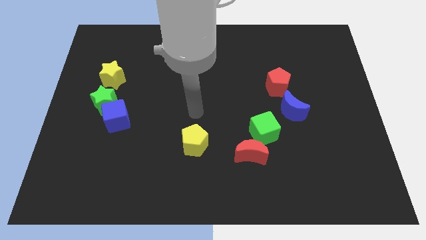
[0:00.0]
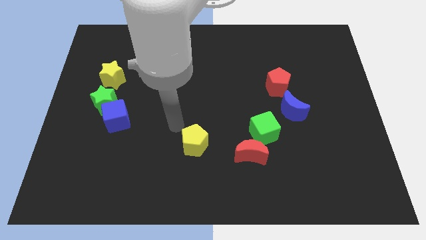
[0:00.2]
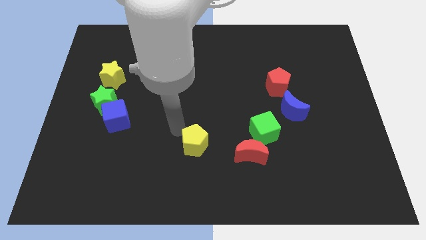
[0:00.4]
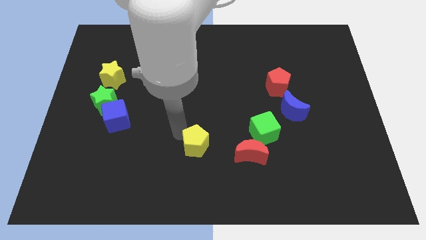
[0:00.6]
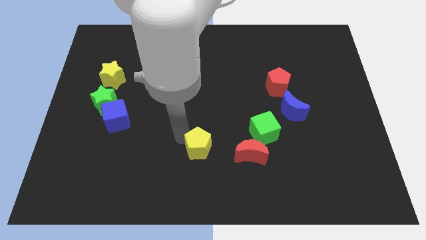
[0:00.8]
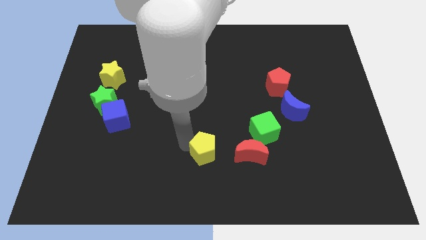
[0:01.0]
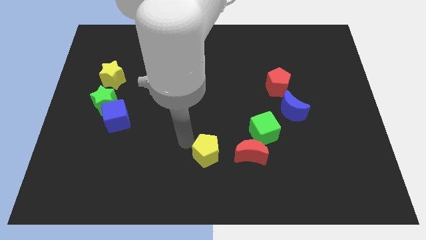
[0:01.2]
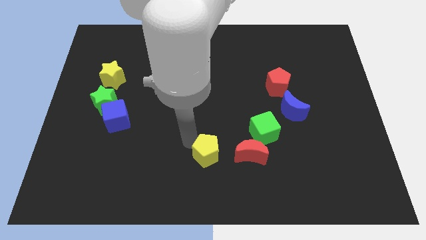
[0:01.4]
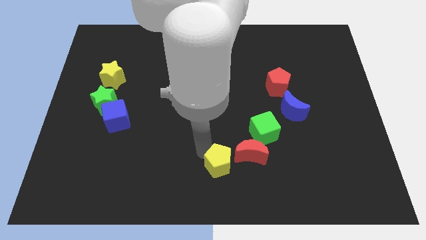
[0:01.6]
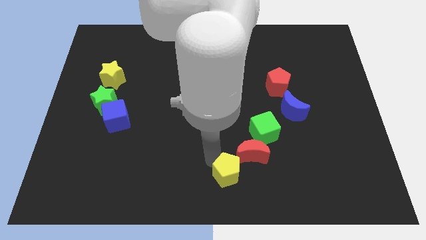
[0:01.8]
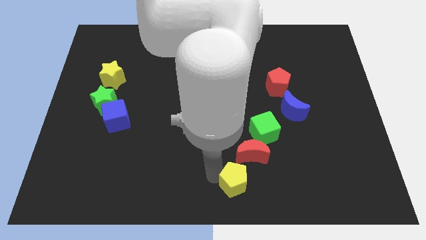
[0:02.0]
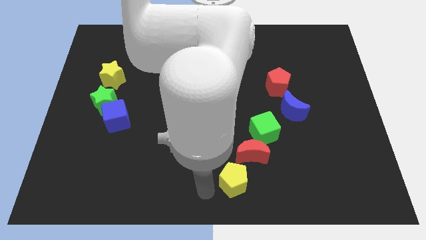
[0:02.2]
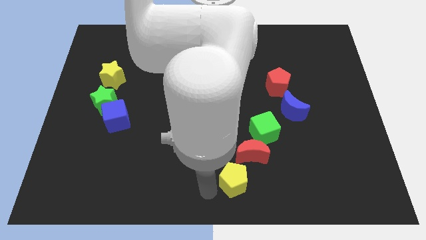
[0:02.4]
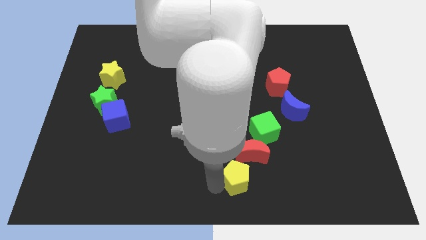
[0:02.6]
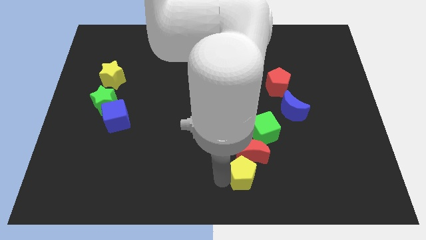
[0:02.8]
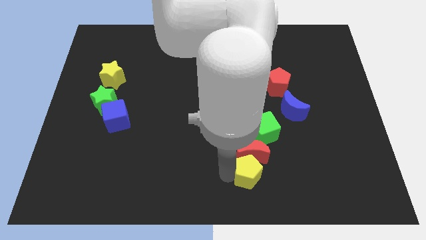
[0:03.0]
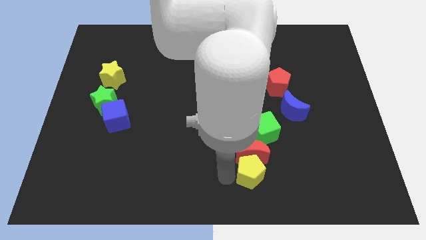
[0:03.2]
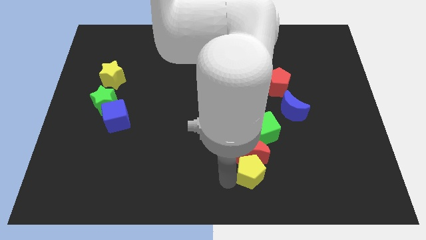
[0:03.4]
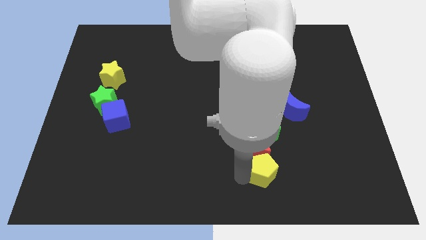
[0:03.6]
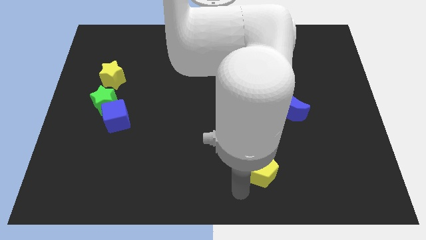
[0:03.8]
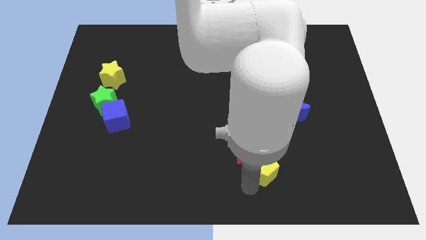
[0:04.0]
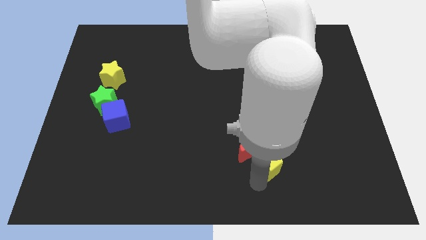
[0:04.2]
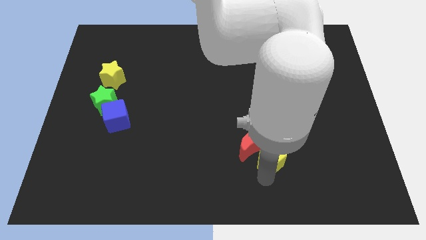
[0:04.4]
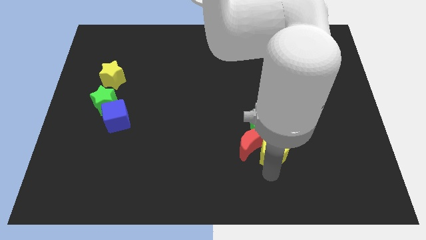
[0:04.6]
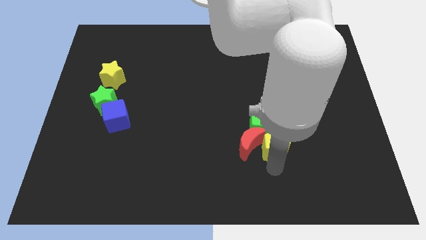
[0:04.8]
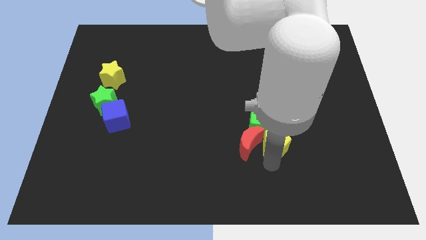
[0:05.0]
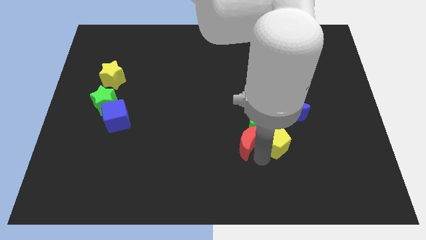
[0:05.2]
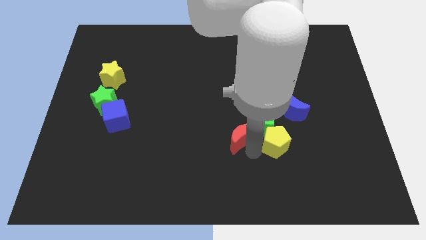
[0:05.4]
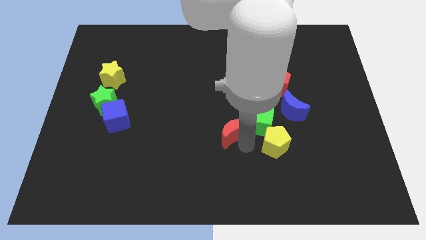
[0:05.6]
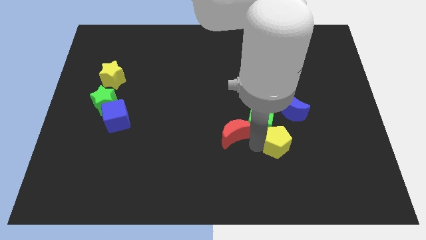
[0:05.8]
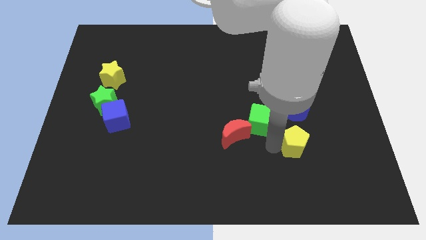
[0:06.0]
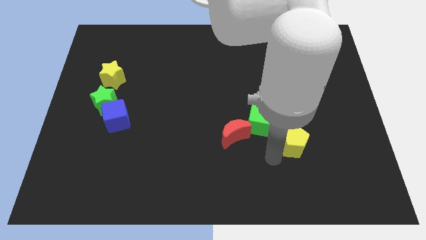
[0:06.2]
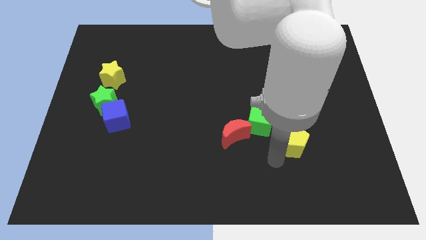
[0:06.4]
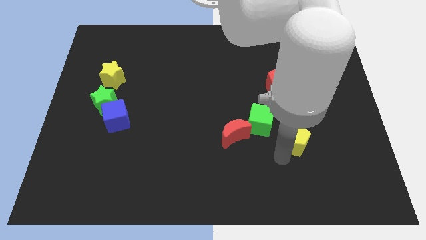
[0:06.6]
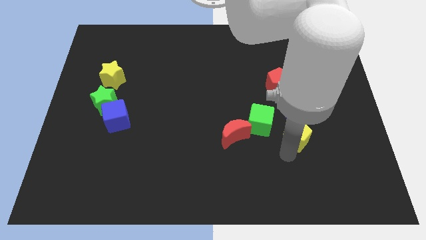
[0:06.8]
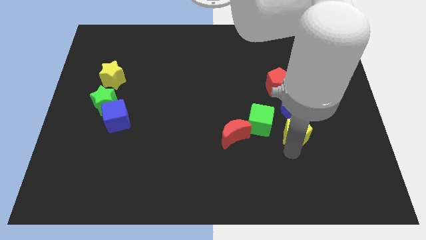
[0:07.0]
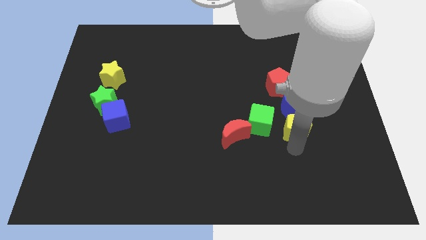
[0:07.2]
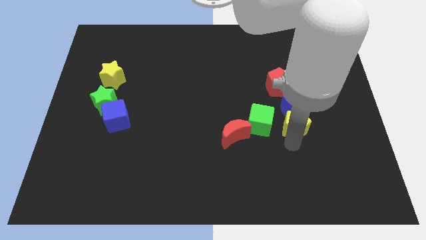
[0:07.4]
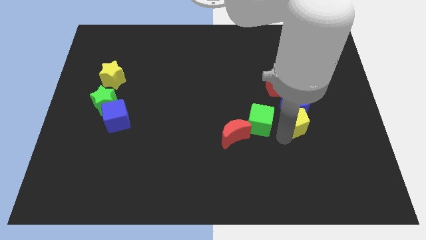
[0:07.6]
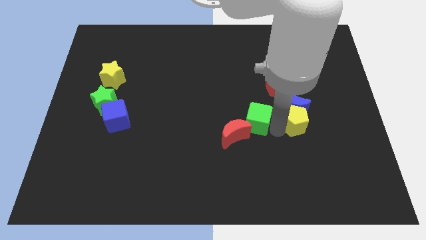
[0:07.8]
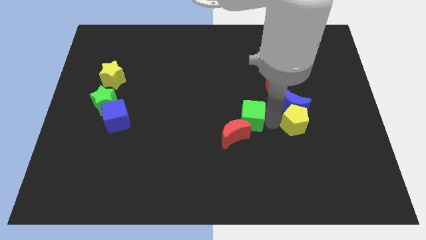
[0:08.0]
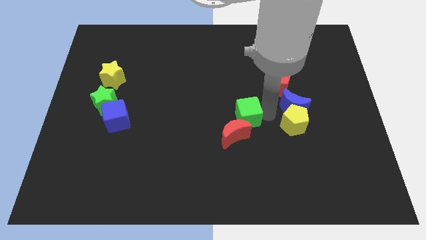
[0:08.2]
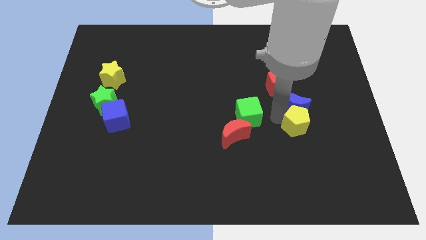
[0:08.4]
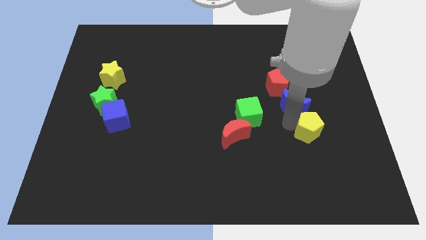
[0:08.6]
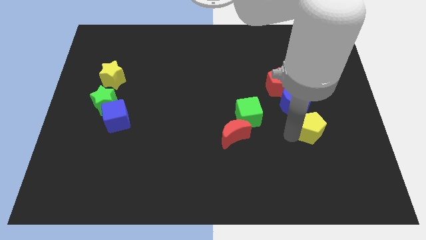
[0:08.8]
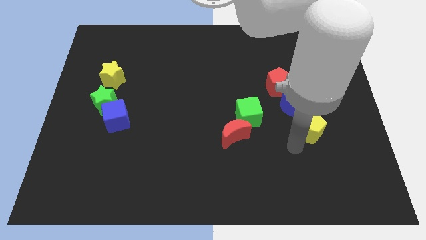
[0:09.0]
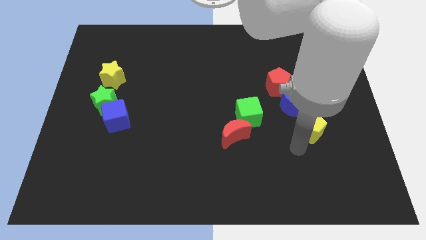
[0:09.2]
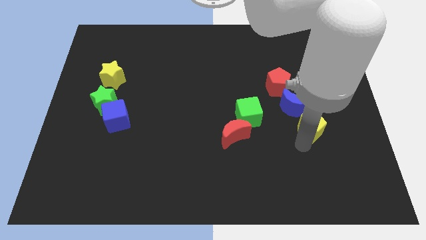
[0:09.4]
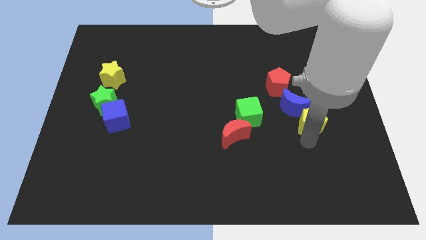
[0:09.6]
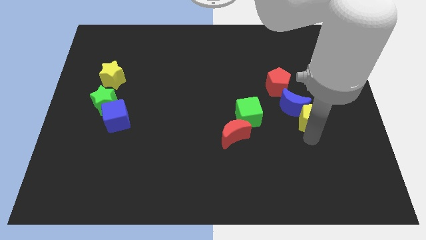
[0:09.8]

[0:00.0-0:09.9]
put the yellow pentagon to the bottom right side of the red pentagon

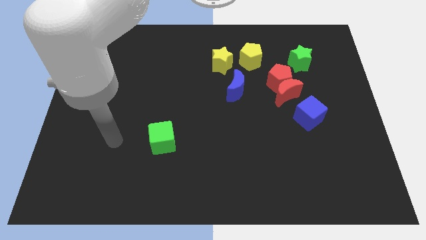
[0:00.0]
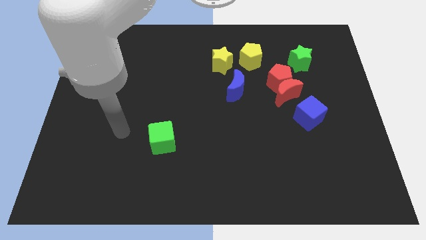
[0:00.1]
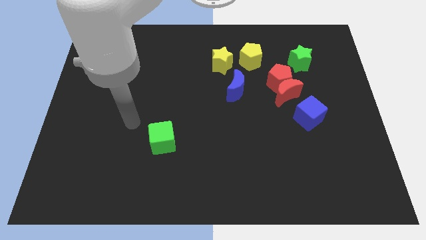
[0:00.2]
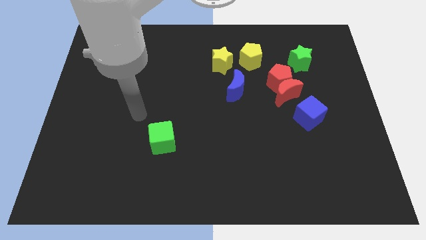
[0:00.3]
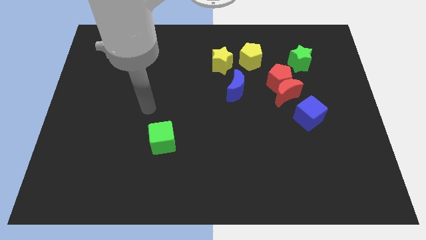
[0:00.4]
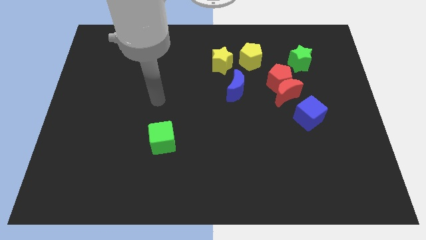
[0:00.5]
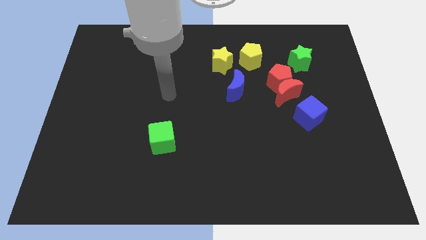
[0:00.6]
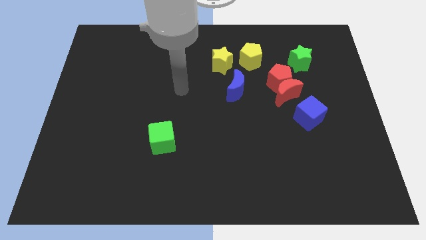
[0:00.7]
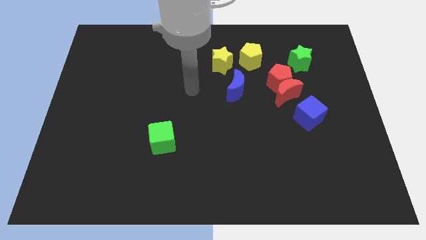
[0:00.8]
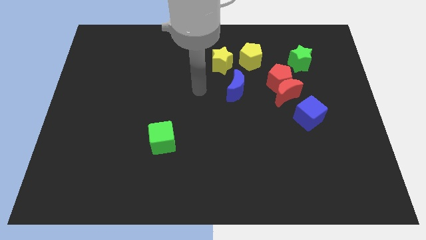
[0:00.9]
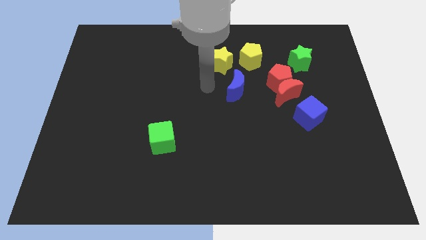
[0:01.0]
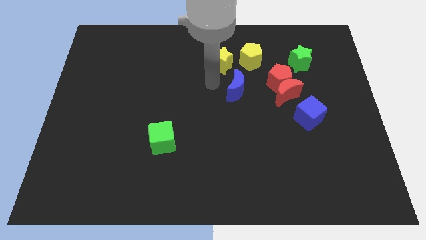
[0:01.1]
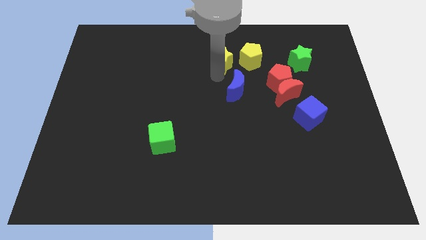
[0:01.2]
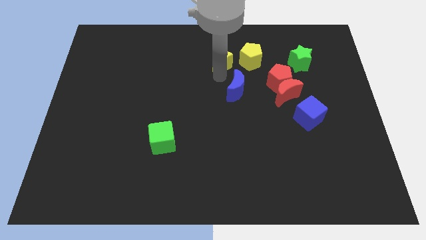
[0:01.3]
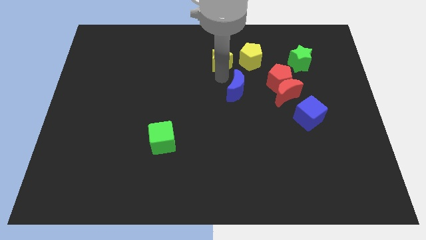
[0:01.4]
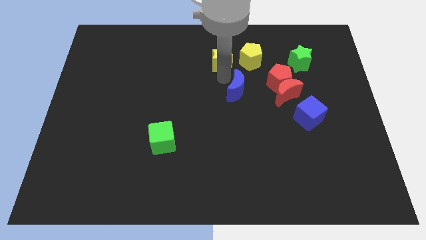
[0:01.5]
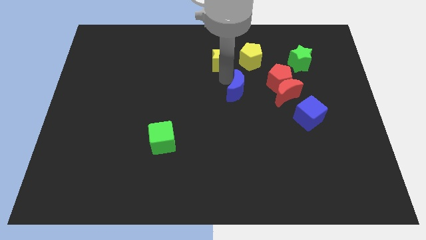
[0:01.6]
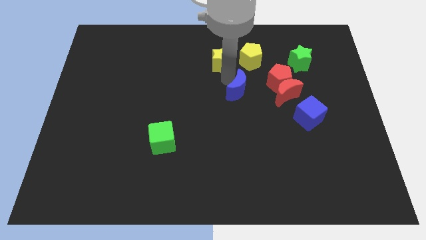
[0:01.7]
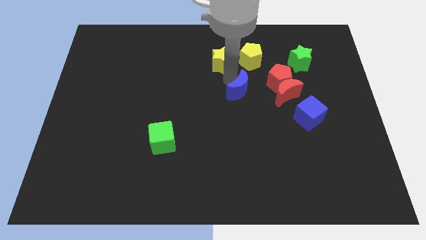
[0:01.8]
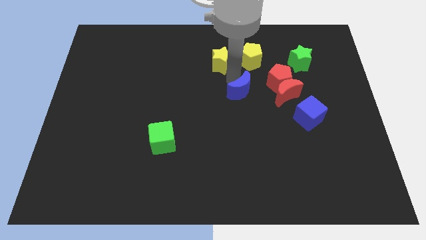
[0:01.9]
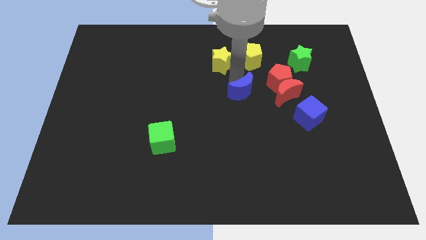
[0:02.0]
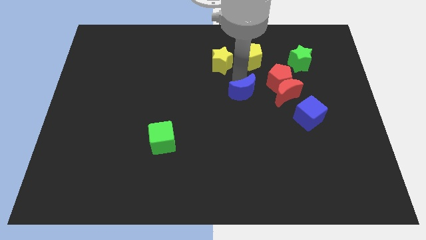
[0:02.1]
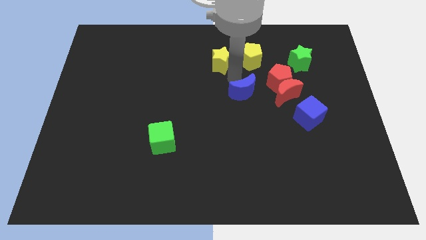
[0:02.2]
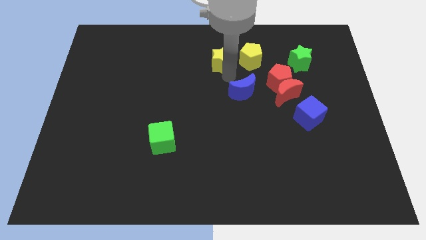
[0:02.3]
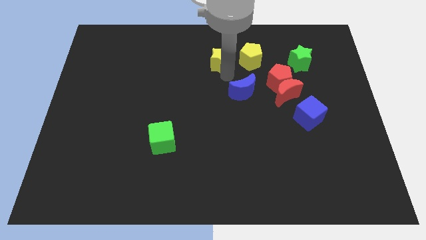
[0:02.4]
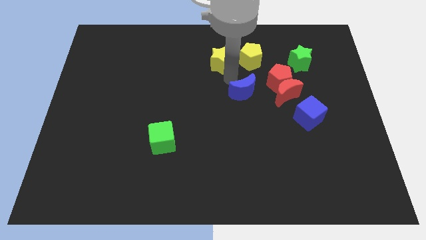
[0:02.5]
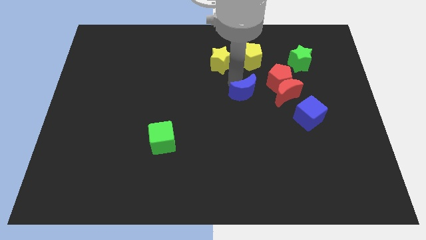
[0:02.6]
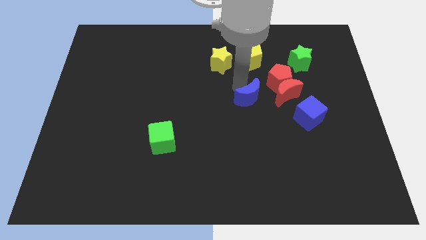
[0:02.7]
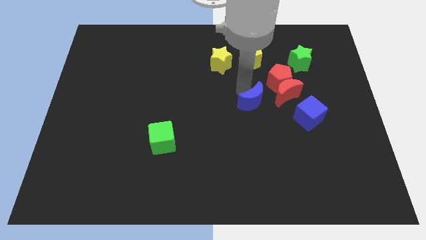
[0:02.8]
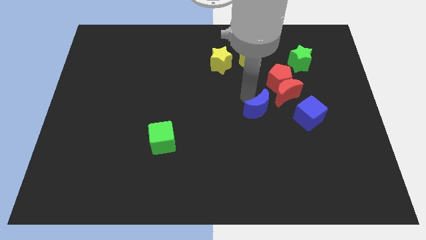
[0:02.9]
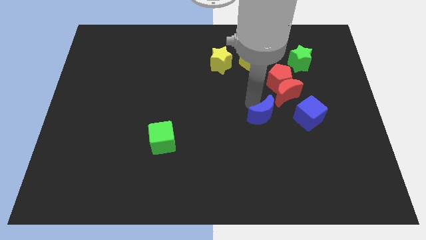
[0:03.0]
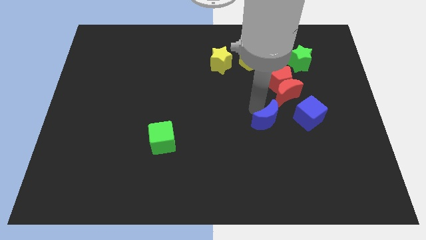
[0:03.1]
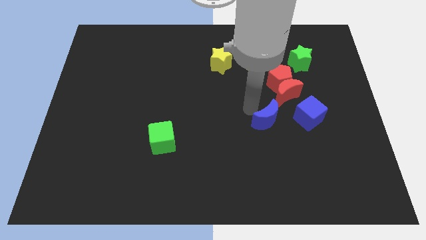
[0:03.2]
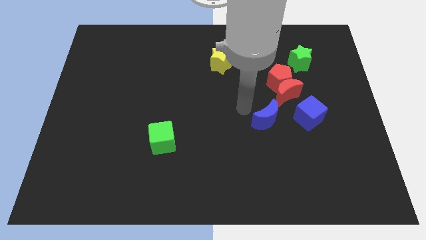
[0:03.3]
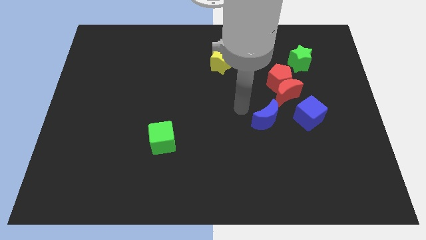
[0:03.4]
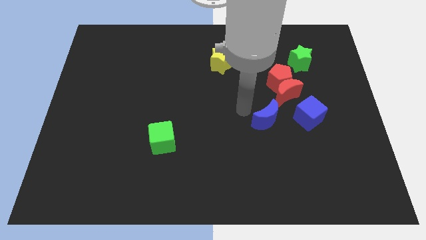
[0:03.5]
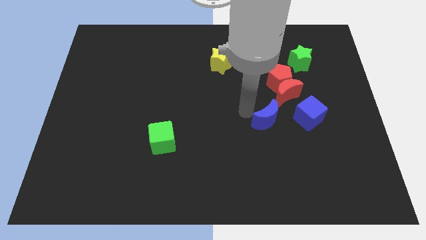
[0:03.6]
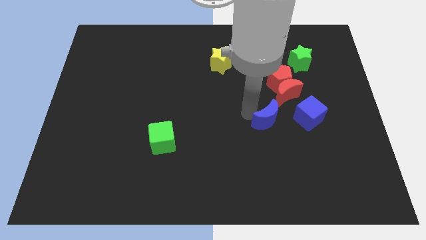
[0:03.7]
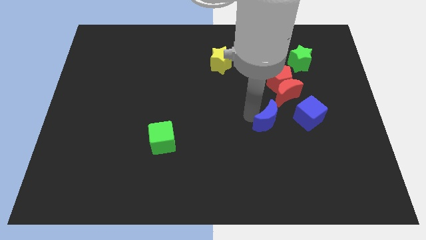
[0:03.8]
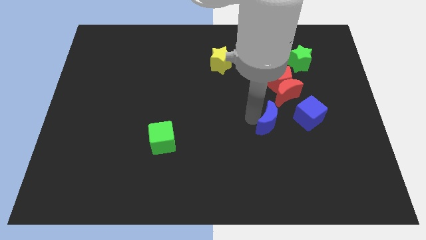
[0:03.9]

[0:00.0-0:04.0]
put the blue moon to the bottom side of the red moon
